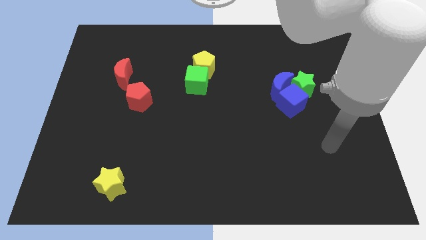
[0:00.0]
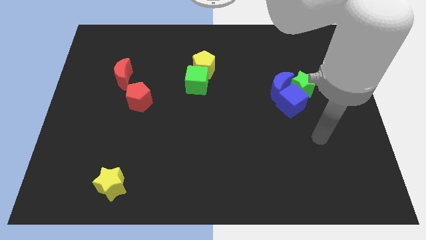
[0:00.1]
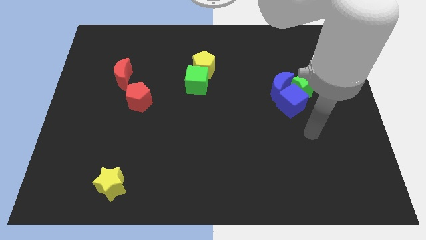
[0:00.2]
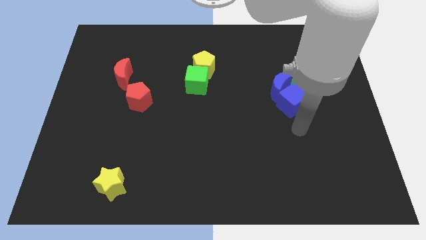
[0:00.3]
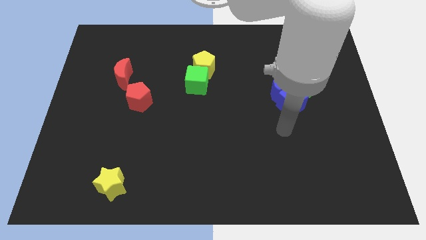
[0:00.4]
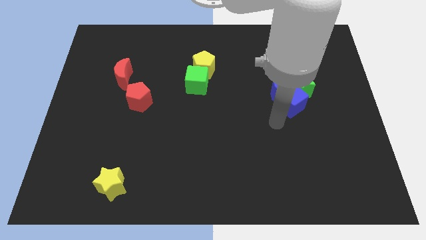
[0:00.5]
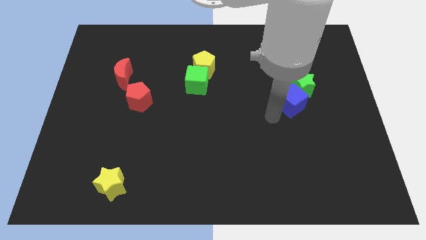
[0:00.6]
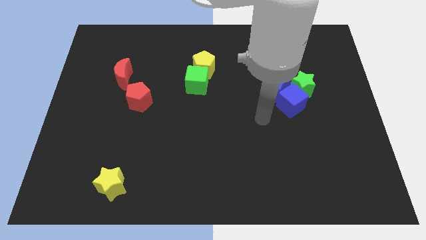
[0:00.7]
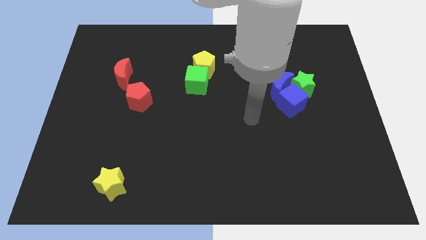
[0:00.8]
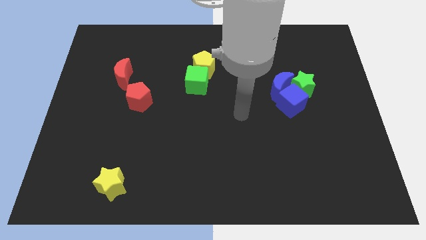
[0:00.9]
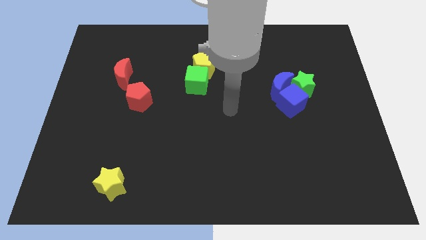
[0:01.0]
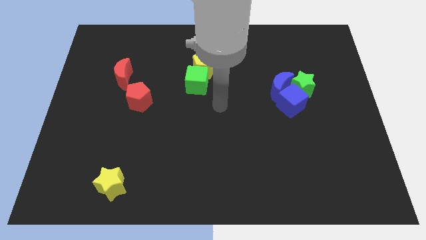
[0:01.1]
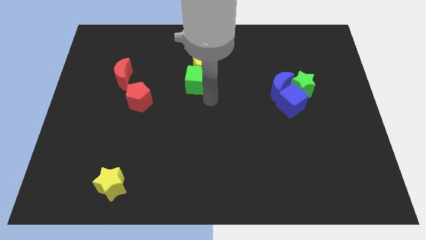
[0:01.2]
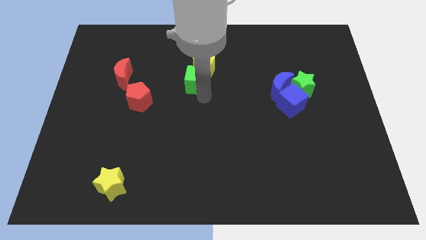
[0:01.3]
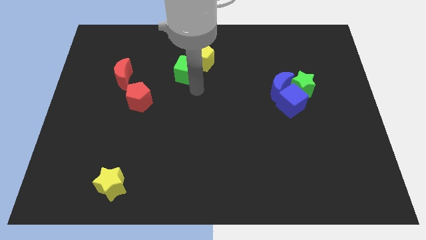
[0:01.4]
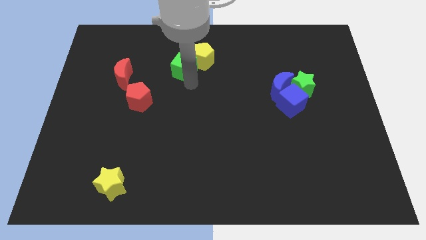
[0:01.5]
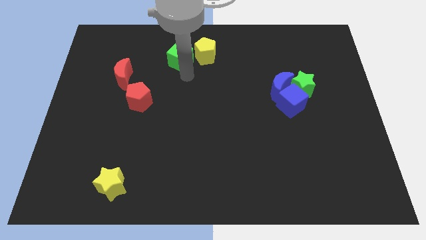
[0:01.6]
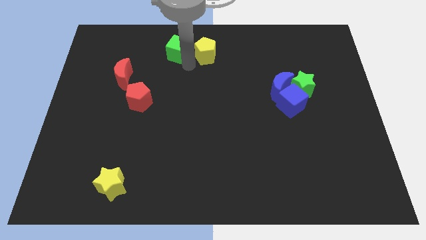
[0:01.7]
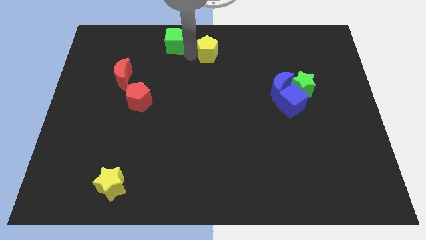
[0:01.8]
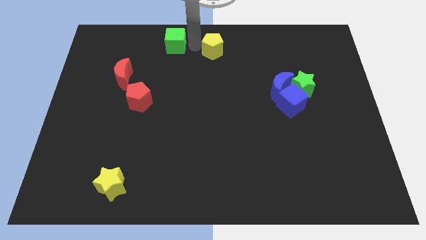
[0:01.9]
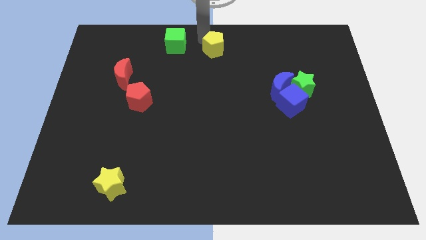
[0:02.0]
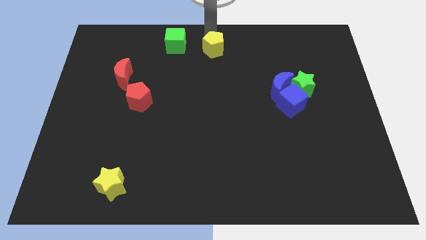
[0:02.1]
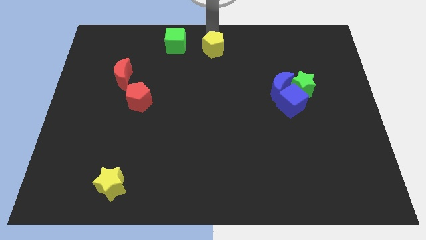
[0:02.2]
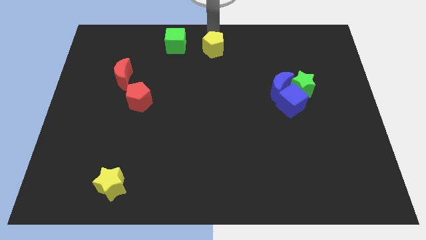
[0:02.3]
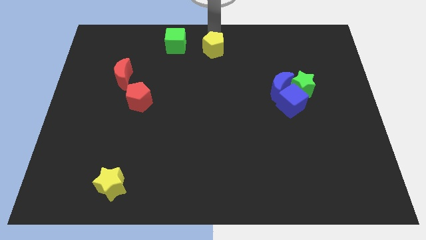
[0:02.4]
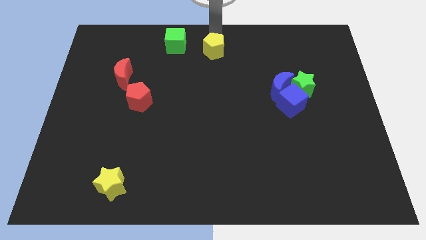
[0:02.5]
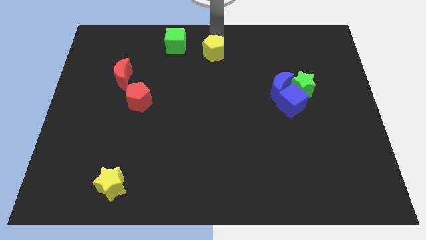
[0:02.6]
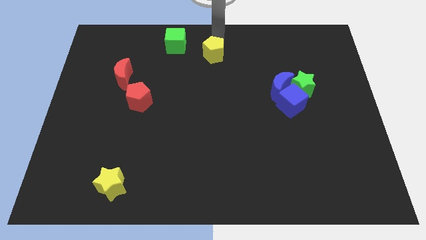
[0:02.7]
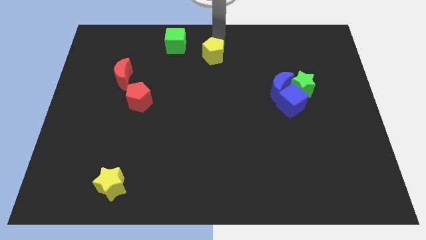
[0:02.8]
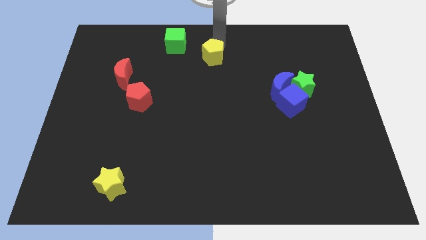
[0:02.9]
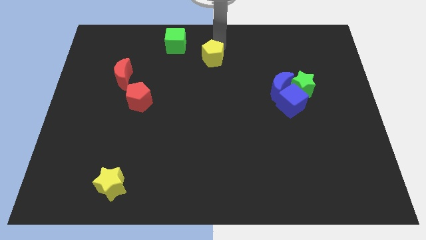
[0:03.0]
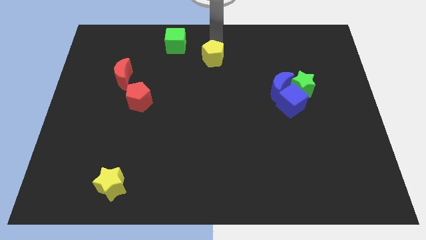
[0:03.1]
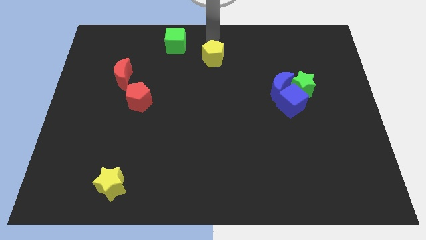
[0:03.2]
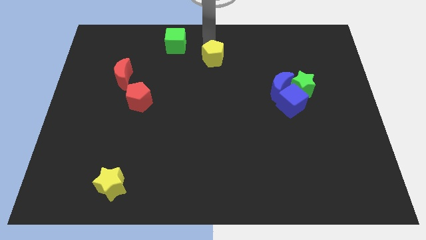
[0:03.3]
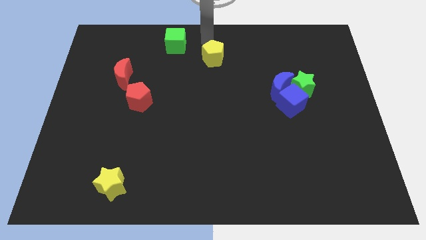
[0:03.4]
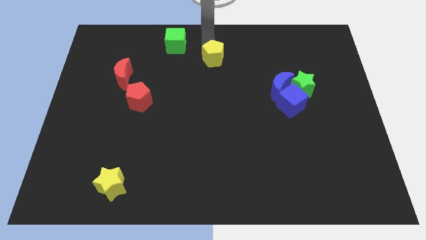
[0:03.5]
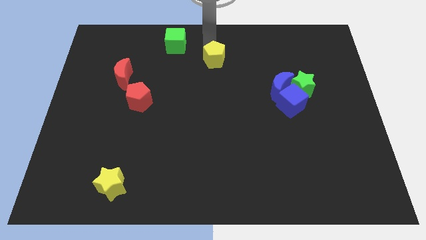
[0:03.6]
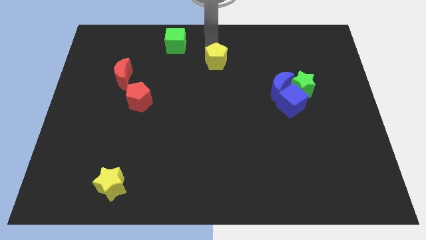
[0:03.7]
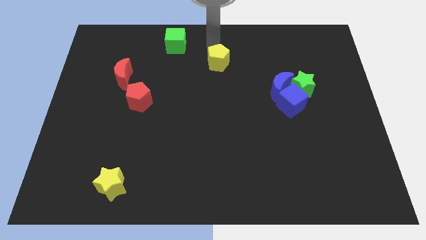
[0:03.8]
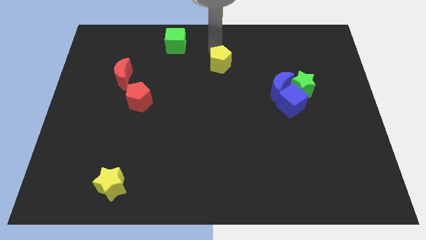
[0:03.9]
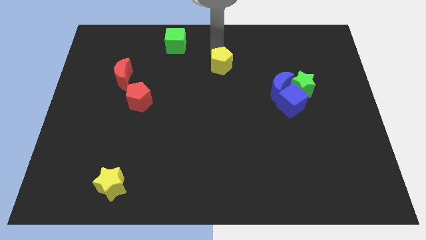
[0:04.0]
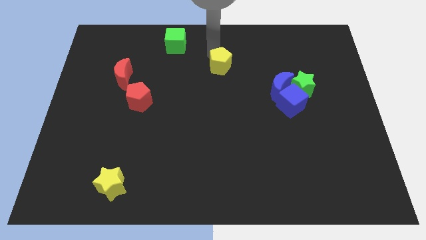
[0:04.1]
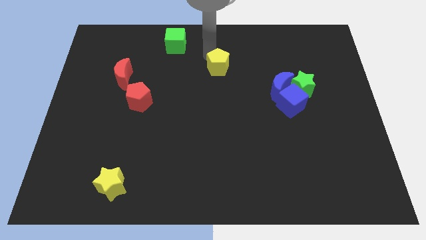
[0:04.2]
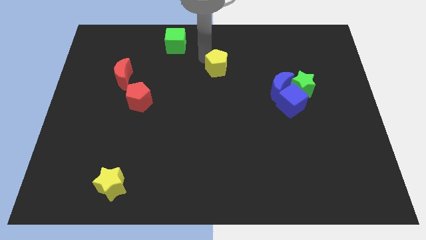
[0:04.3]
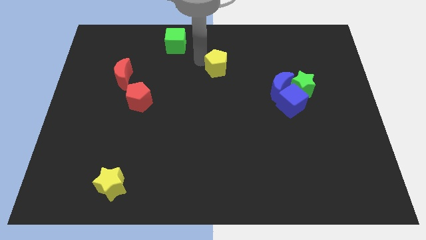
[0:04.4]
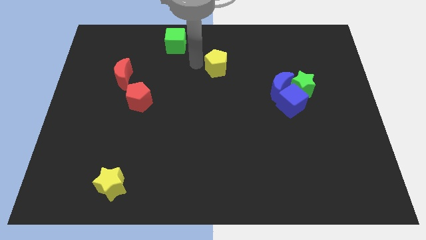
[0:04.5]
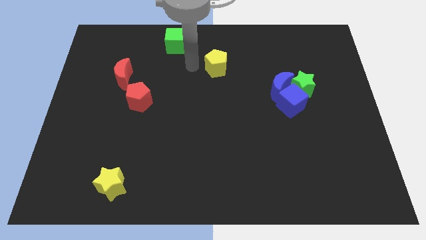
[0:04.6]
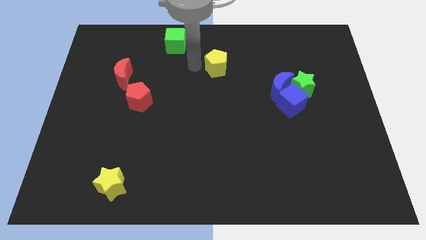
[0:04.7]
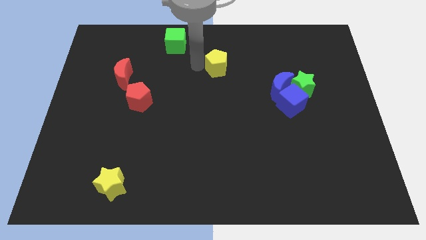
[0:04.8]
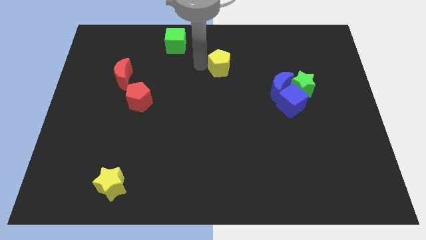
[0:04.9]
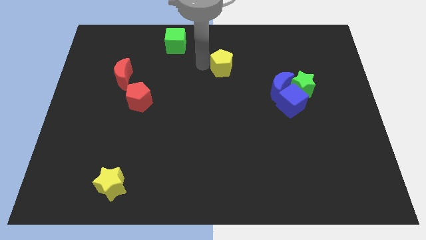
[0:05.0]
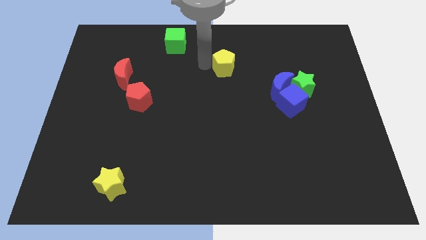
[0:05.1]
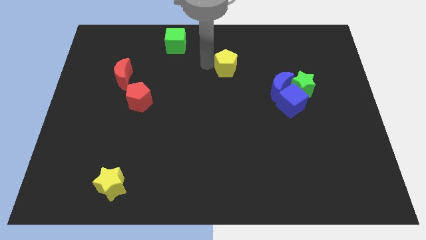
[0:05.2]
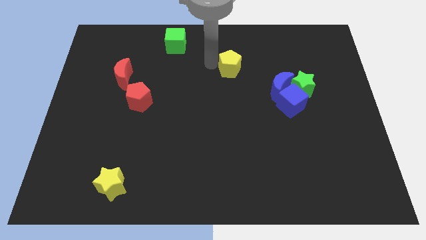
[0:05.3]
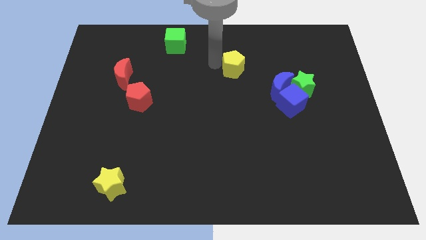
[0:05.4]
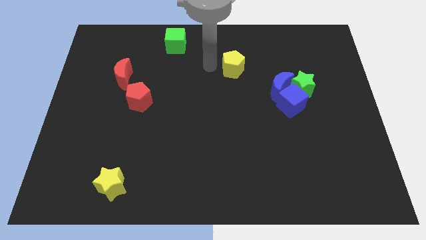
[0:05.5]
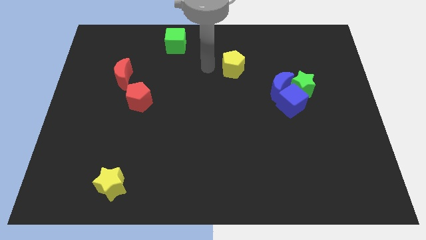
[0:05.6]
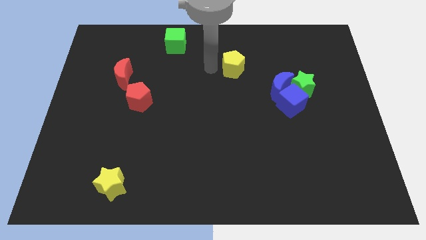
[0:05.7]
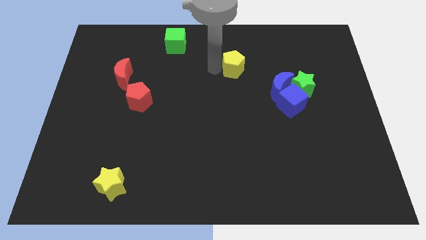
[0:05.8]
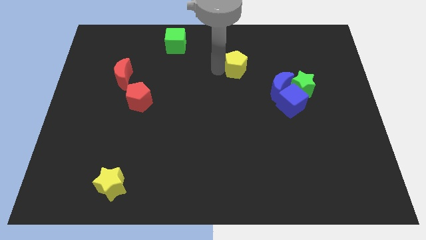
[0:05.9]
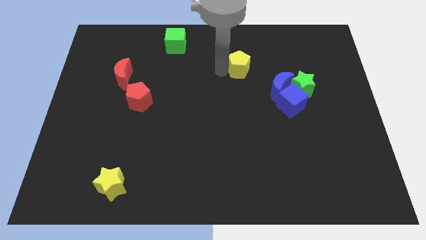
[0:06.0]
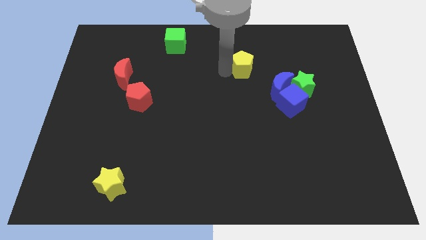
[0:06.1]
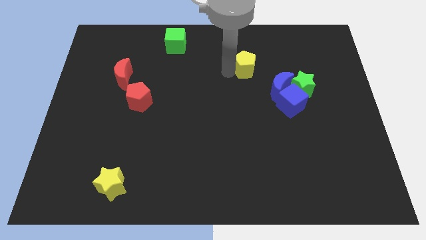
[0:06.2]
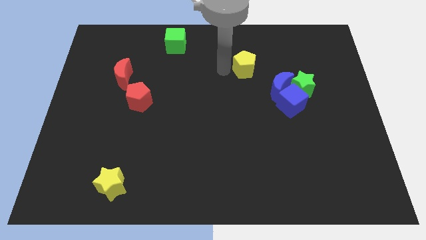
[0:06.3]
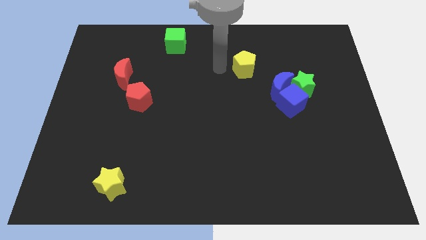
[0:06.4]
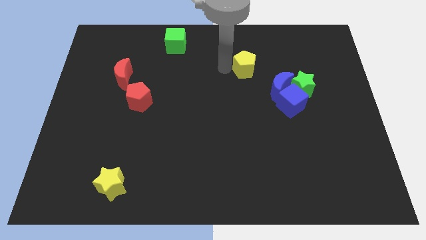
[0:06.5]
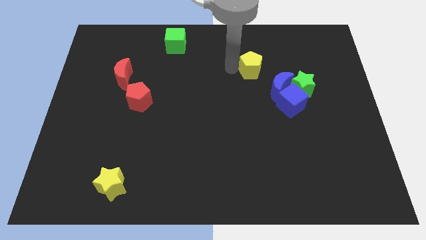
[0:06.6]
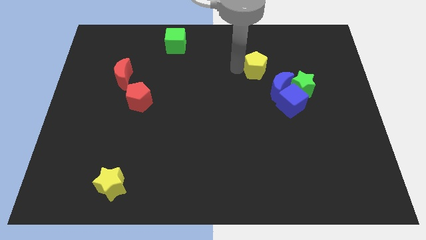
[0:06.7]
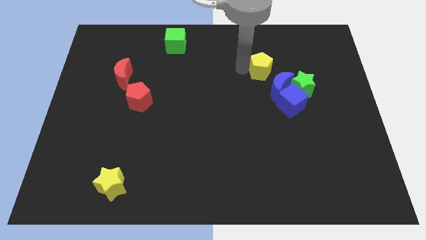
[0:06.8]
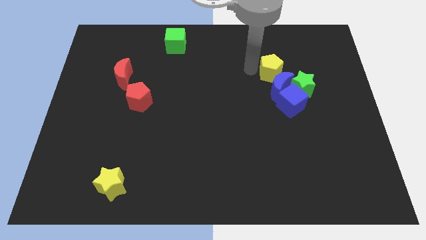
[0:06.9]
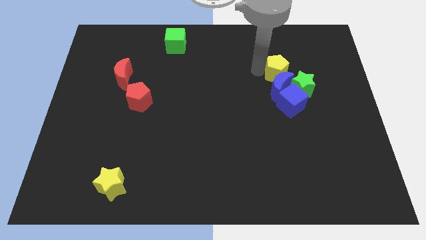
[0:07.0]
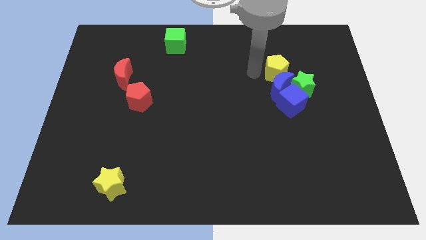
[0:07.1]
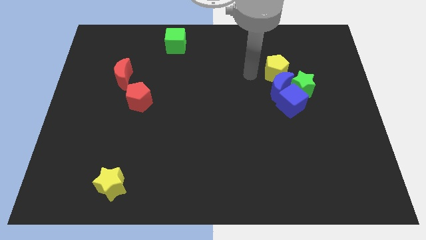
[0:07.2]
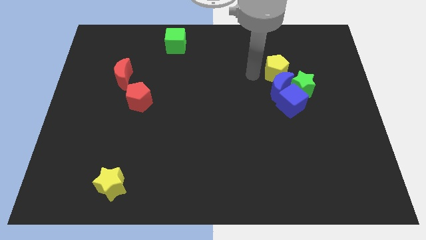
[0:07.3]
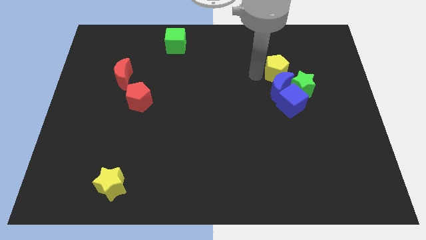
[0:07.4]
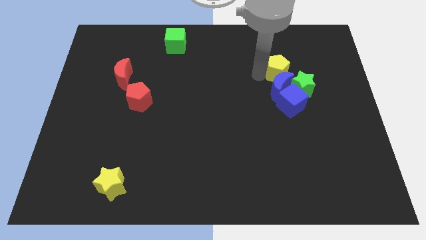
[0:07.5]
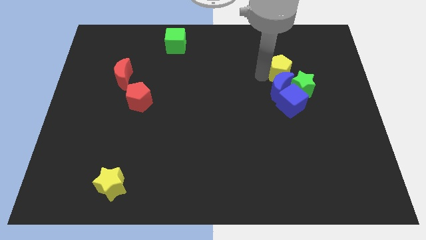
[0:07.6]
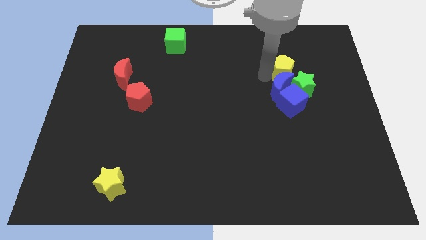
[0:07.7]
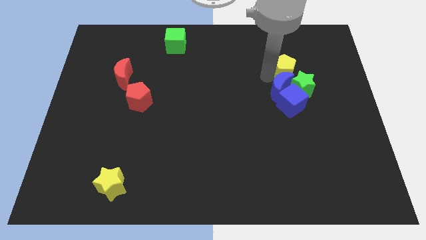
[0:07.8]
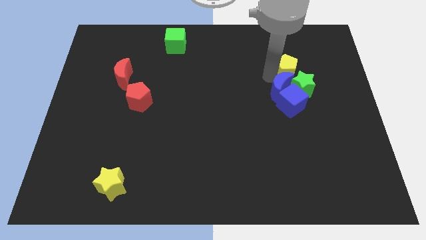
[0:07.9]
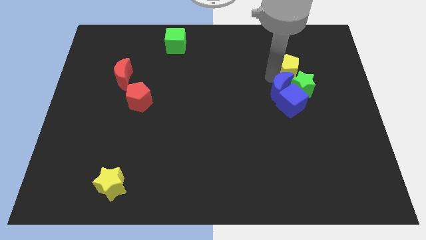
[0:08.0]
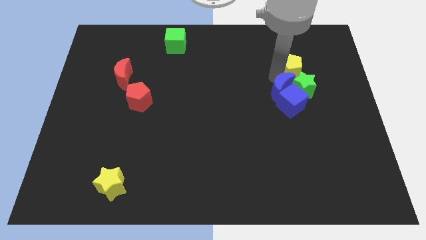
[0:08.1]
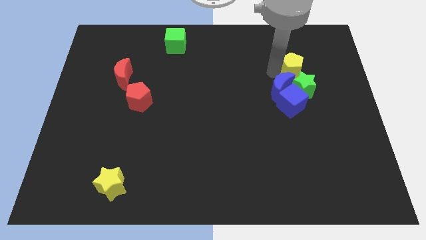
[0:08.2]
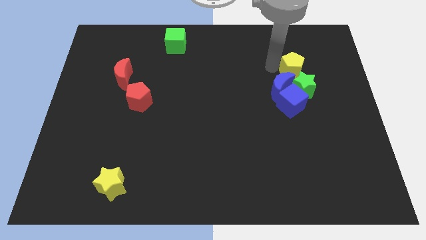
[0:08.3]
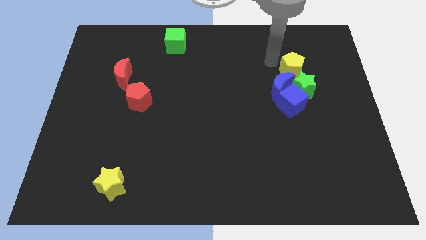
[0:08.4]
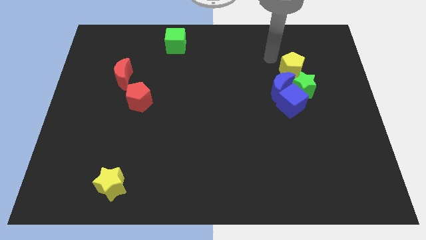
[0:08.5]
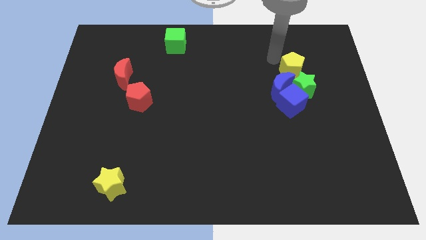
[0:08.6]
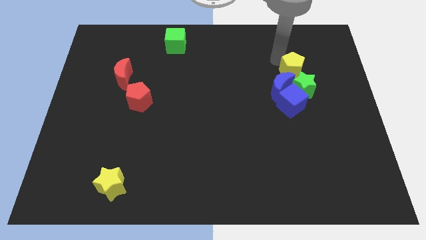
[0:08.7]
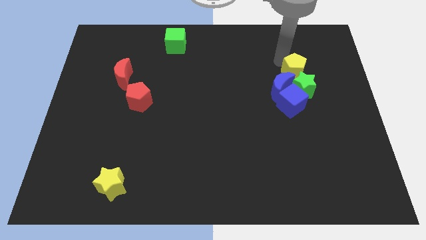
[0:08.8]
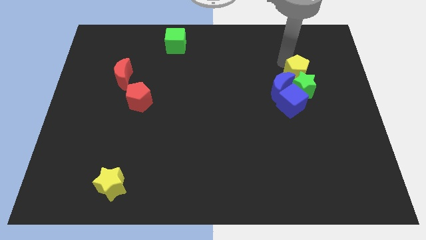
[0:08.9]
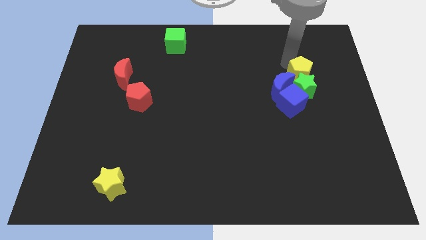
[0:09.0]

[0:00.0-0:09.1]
push the yellow pentagon right of the blue moon
